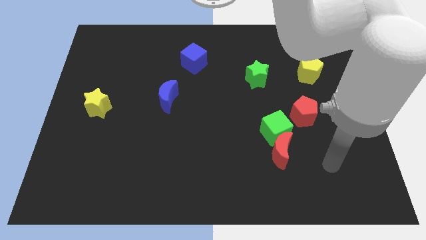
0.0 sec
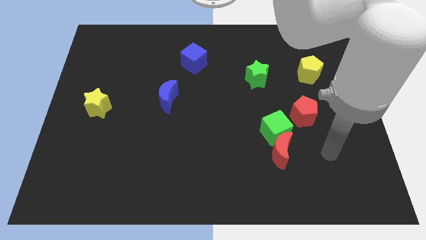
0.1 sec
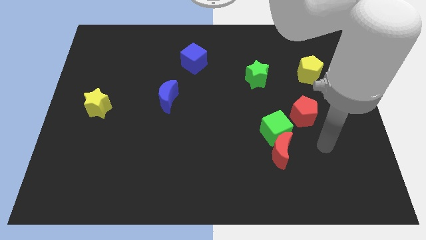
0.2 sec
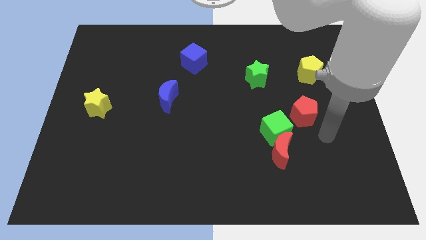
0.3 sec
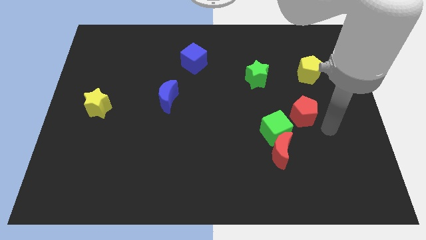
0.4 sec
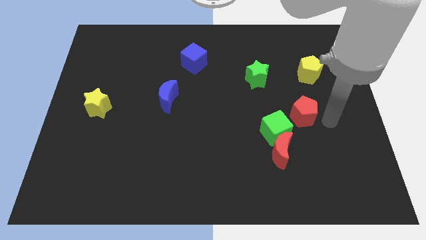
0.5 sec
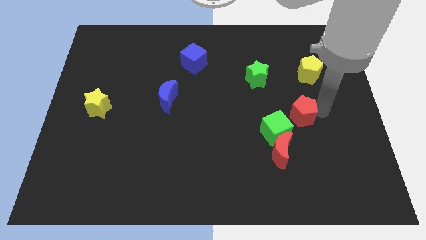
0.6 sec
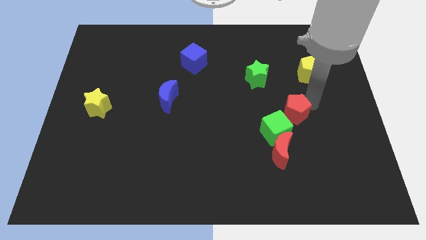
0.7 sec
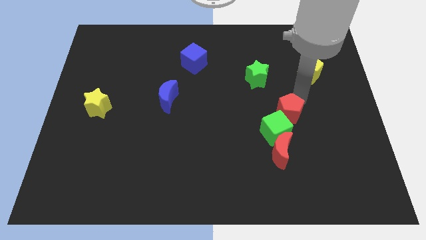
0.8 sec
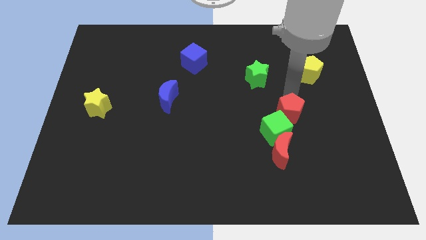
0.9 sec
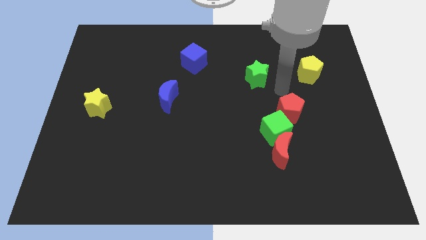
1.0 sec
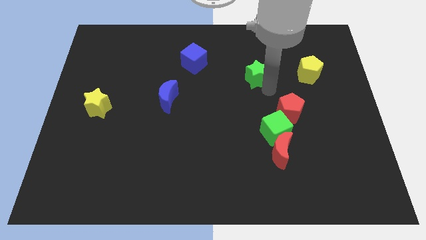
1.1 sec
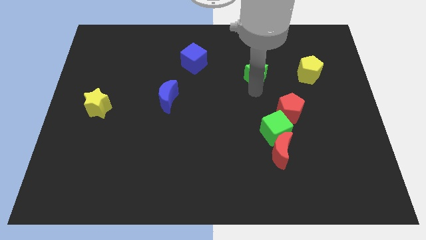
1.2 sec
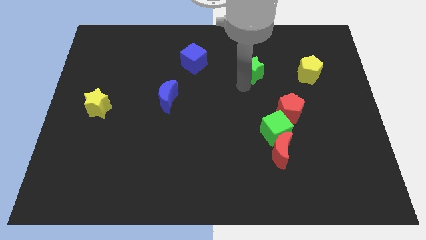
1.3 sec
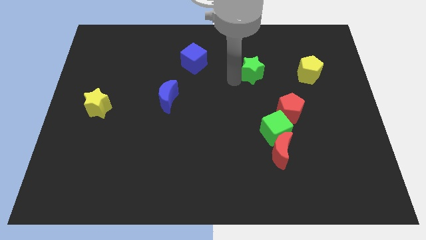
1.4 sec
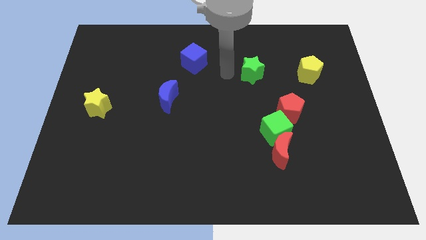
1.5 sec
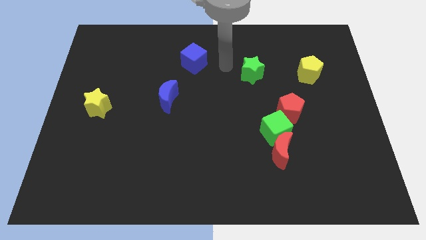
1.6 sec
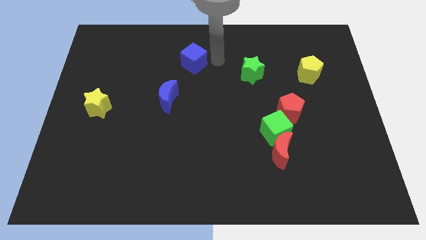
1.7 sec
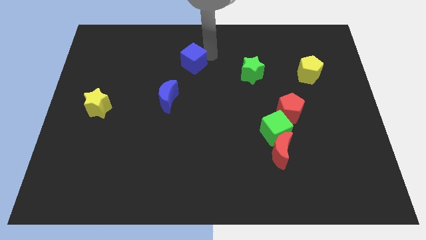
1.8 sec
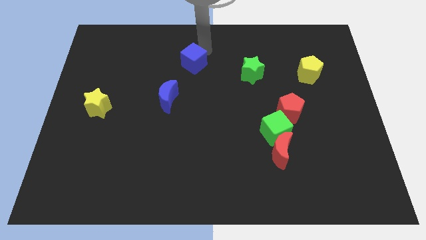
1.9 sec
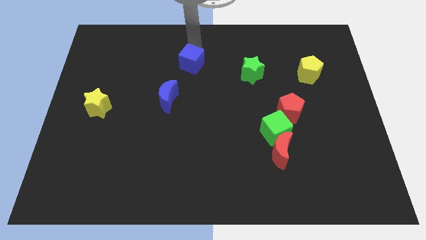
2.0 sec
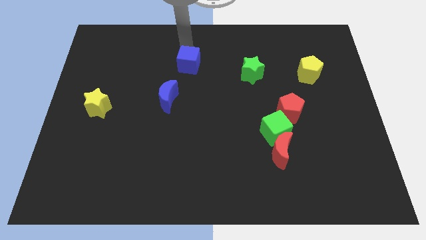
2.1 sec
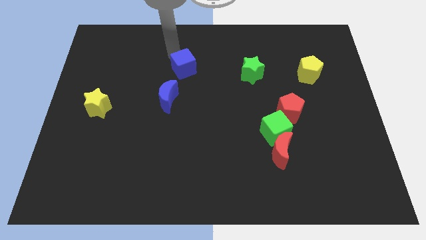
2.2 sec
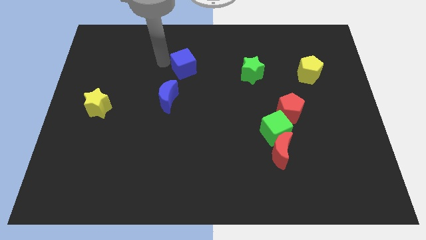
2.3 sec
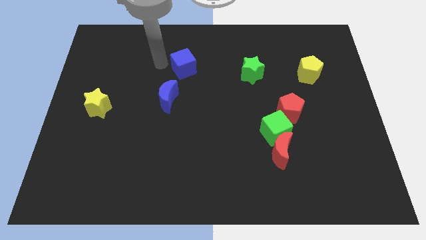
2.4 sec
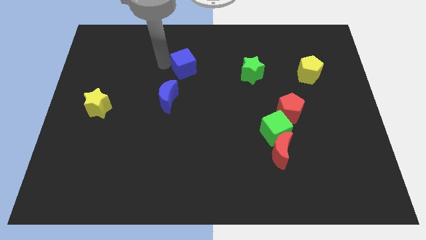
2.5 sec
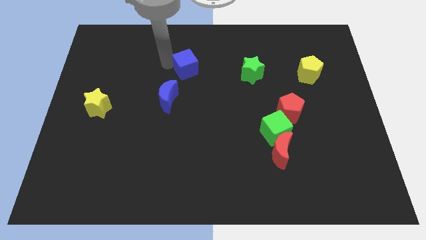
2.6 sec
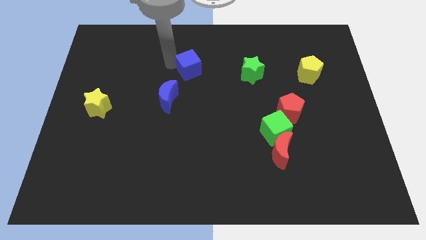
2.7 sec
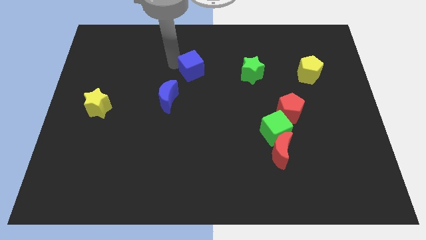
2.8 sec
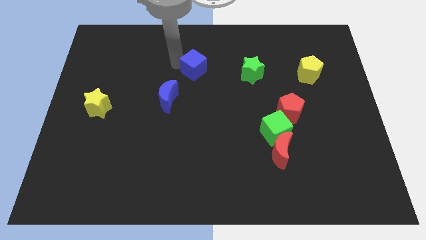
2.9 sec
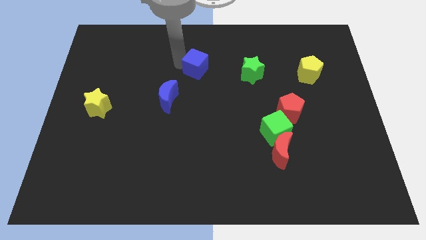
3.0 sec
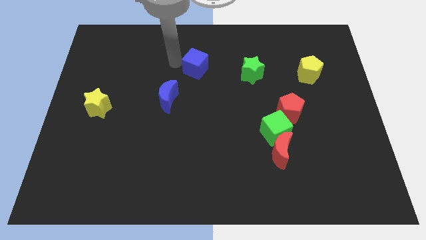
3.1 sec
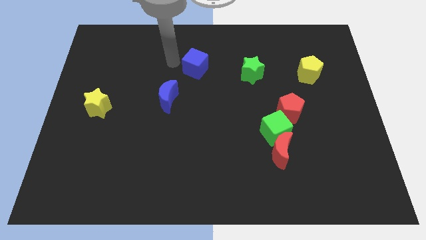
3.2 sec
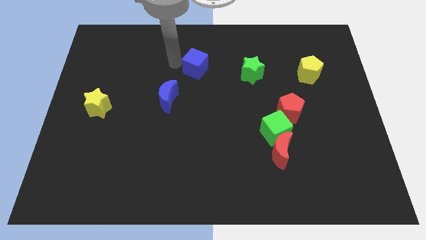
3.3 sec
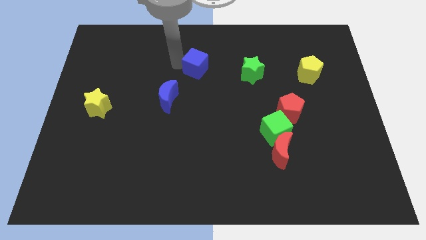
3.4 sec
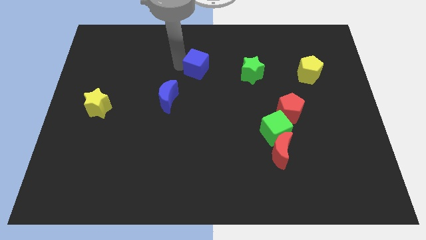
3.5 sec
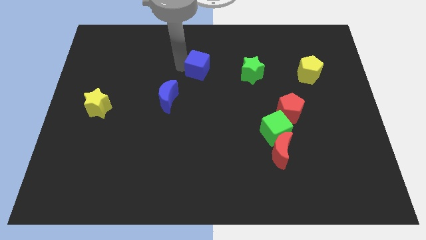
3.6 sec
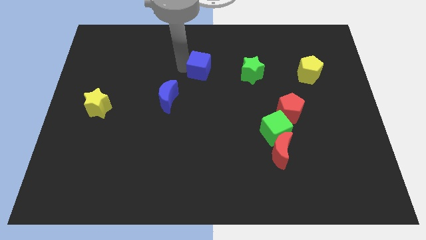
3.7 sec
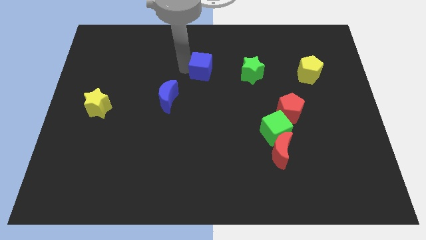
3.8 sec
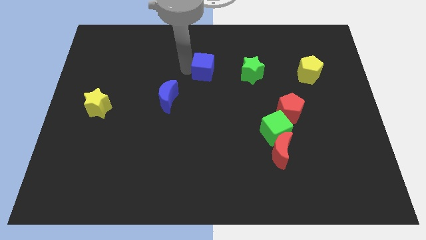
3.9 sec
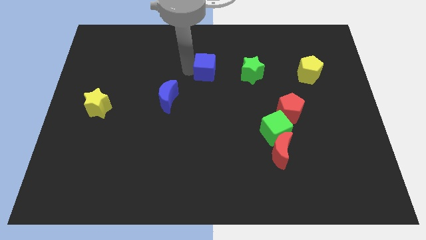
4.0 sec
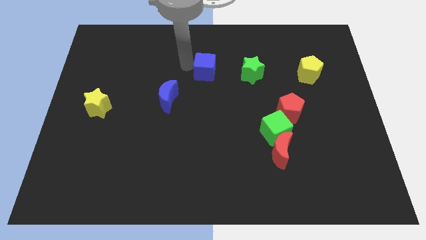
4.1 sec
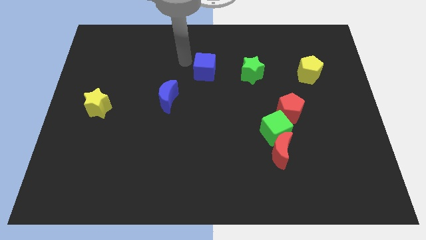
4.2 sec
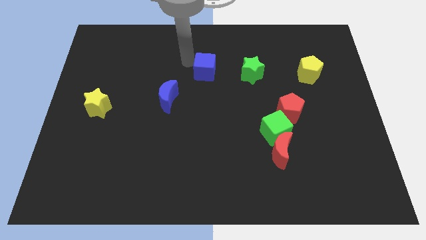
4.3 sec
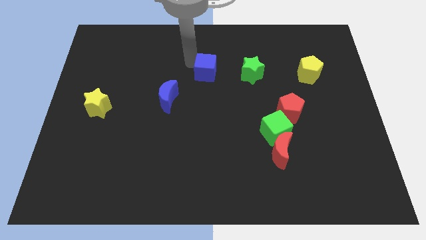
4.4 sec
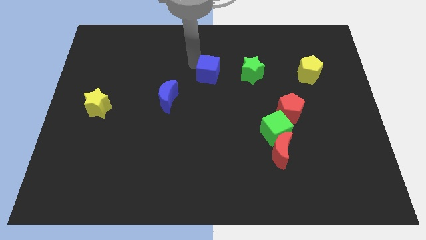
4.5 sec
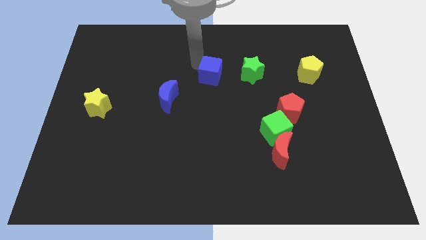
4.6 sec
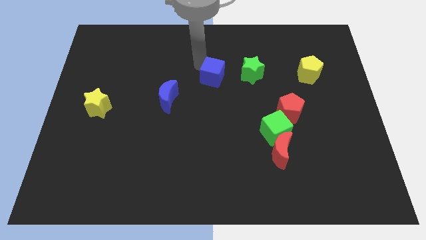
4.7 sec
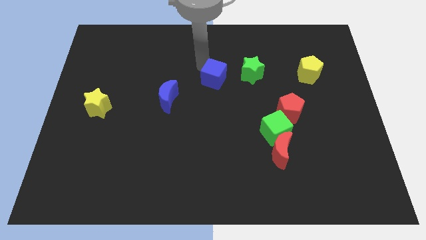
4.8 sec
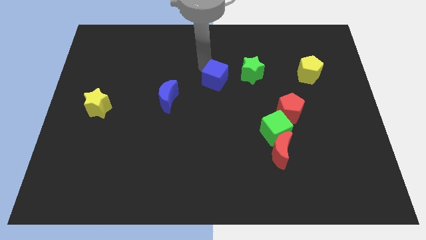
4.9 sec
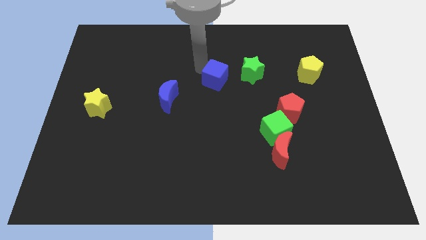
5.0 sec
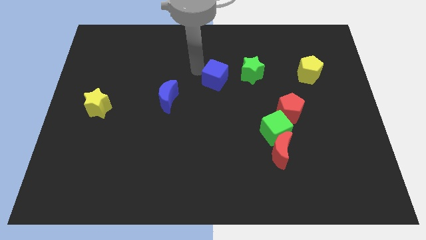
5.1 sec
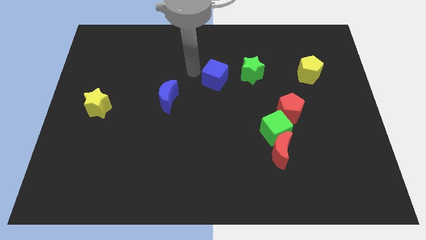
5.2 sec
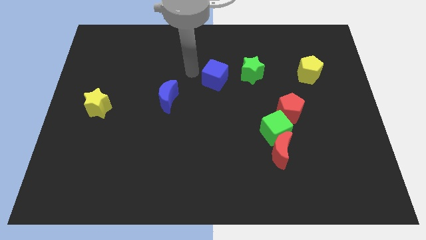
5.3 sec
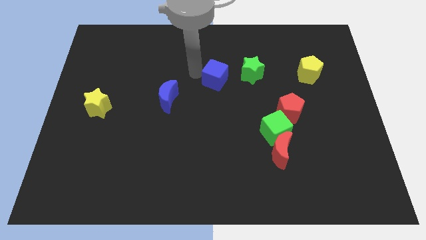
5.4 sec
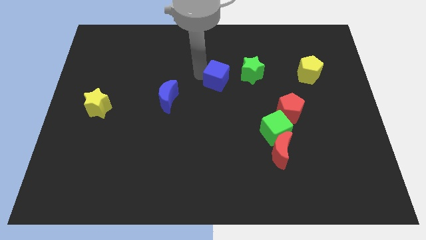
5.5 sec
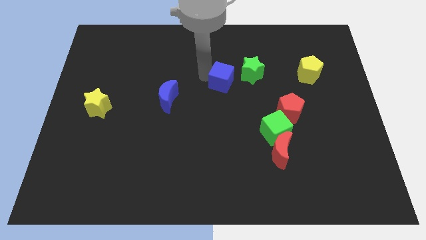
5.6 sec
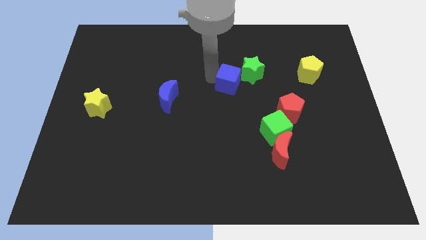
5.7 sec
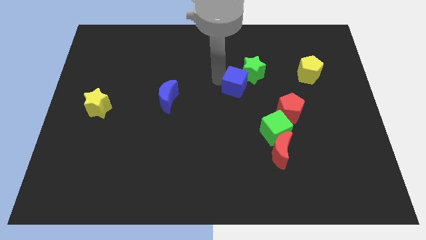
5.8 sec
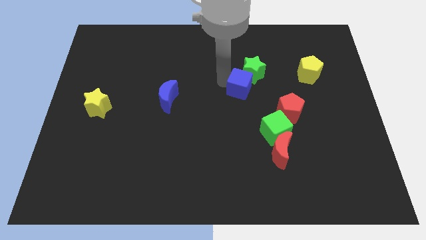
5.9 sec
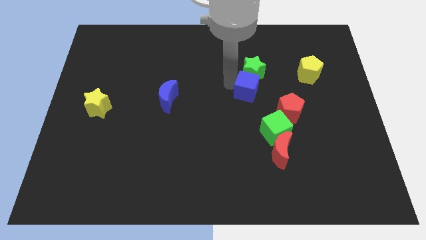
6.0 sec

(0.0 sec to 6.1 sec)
move the blue cube to the top left of the red pentagon

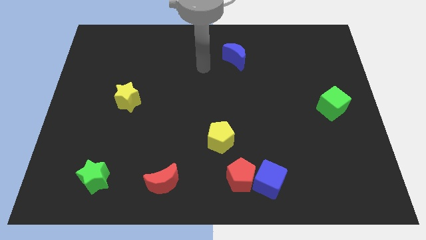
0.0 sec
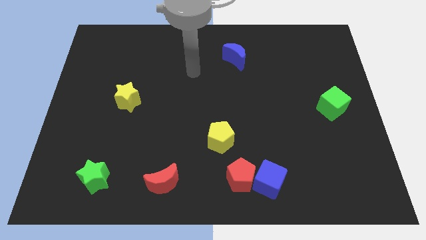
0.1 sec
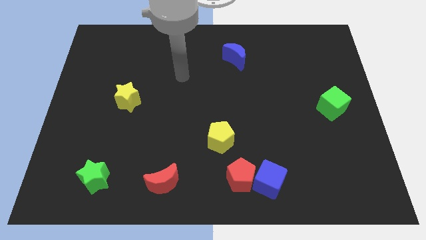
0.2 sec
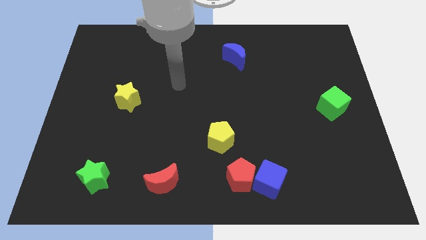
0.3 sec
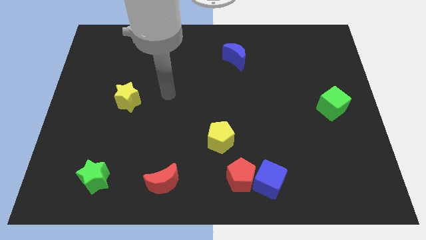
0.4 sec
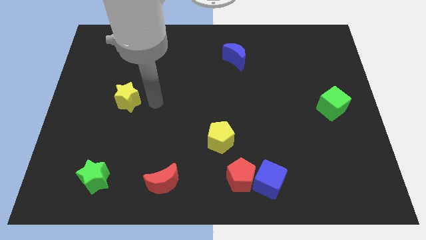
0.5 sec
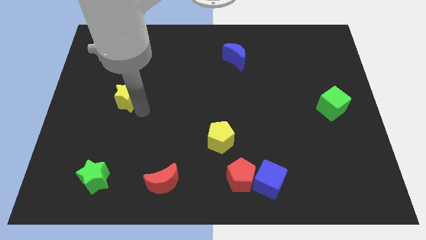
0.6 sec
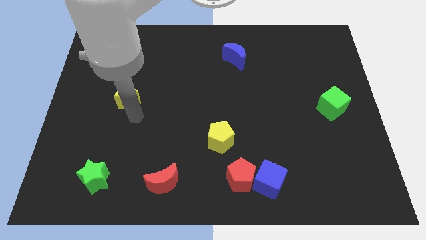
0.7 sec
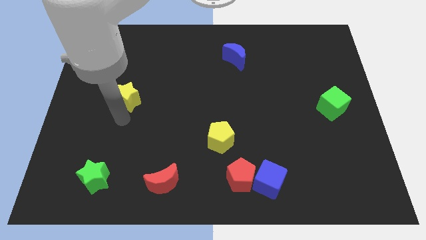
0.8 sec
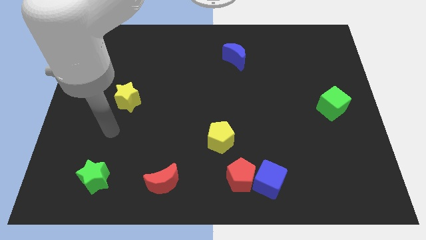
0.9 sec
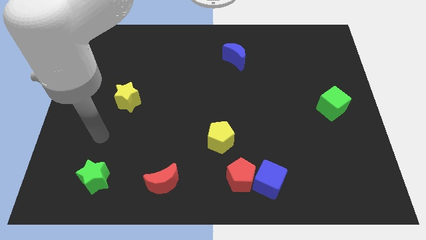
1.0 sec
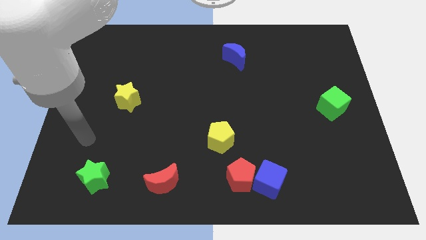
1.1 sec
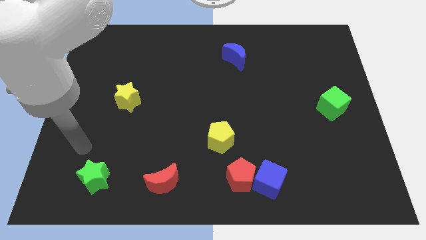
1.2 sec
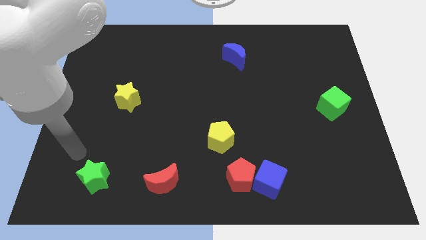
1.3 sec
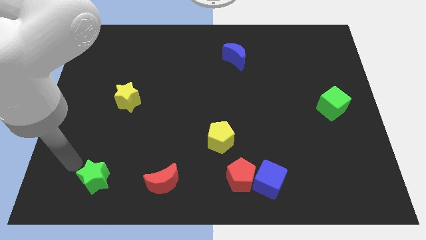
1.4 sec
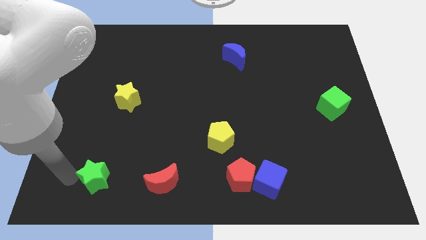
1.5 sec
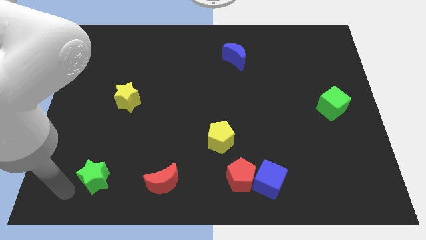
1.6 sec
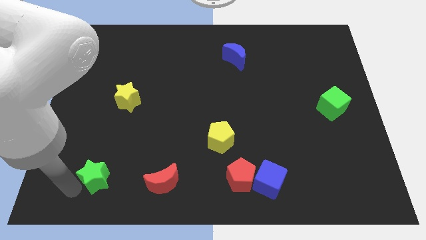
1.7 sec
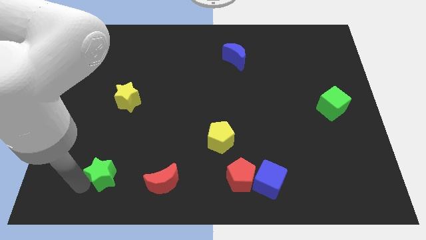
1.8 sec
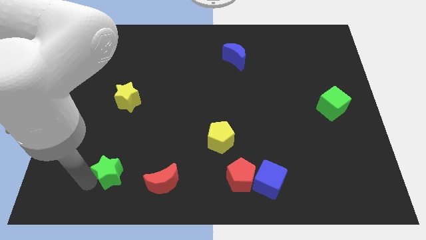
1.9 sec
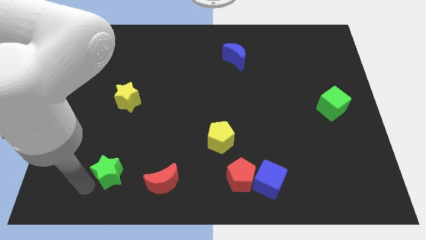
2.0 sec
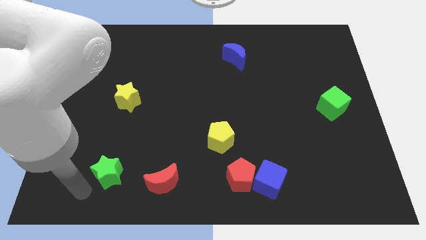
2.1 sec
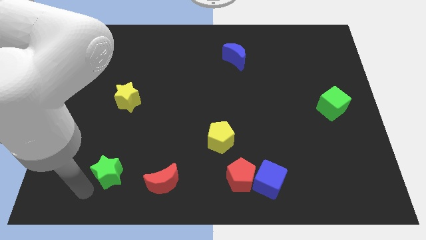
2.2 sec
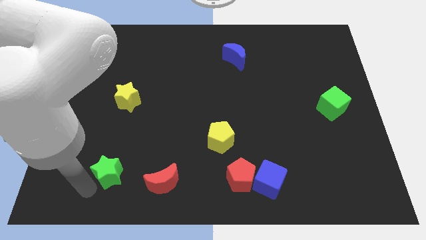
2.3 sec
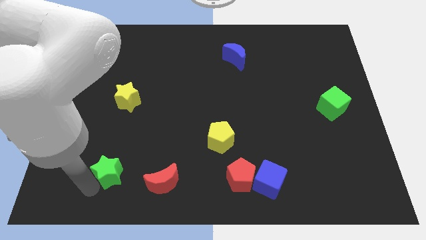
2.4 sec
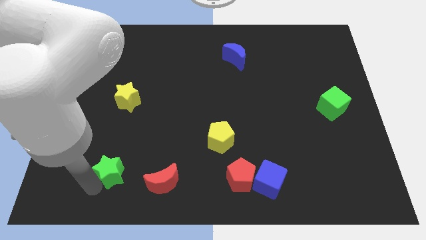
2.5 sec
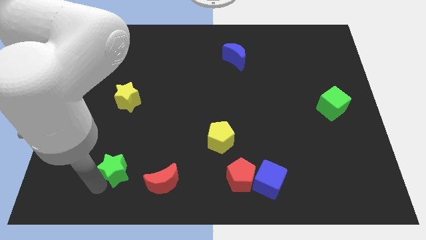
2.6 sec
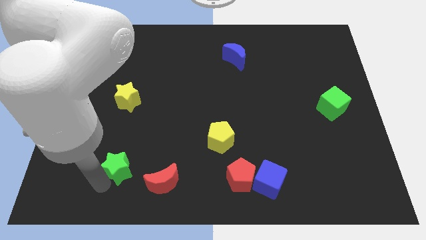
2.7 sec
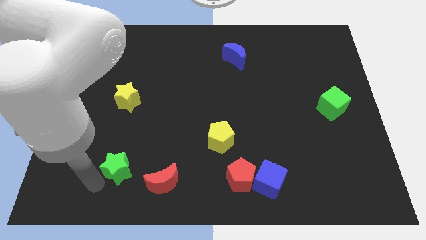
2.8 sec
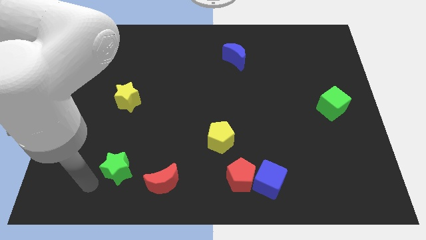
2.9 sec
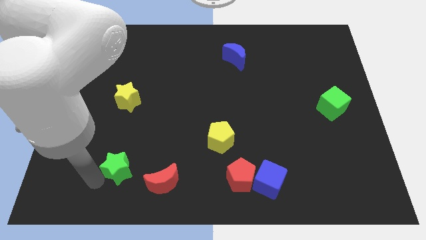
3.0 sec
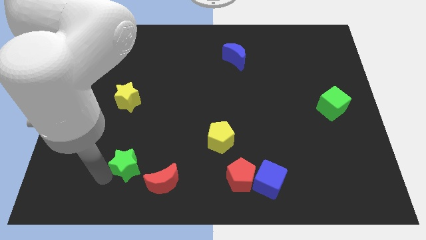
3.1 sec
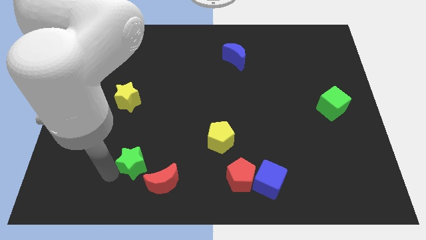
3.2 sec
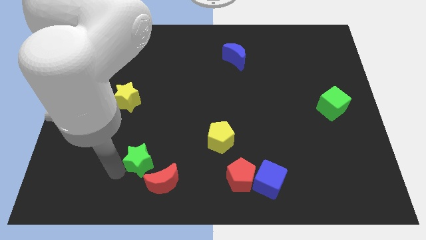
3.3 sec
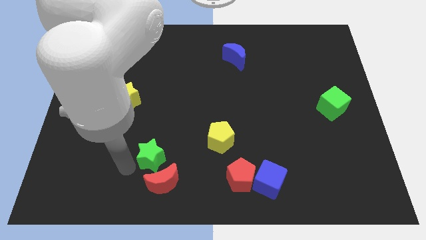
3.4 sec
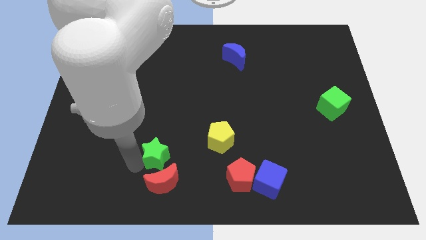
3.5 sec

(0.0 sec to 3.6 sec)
push the green star to the left of the yellow pentagon
